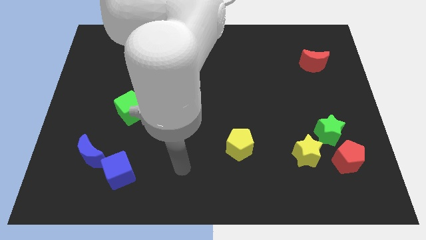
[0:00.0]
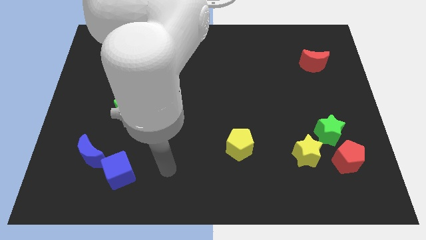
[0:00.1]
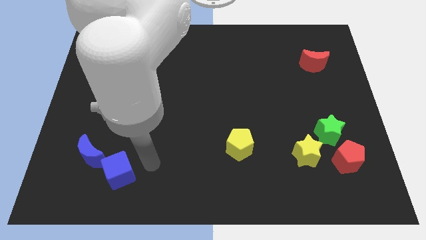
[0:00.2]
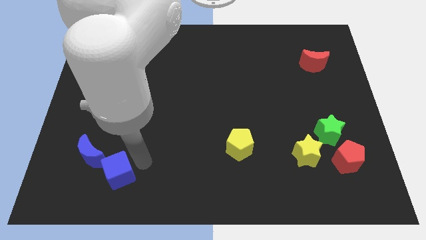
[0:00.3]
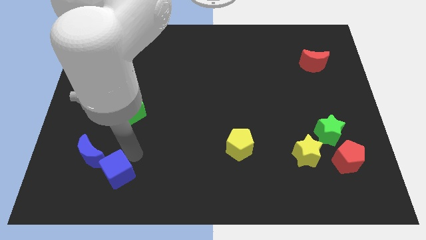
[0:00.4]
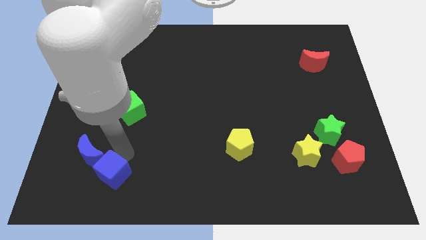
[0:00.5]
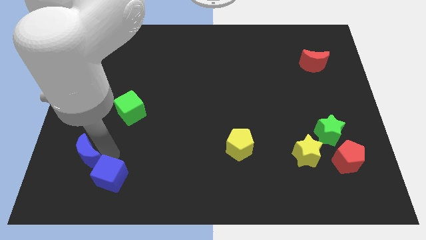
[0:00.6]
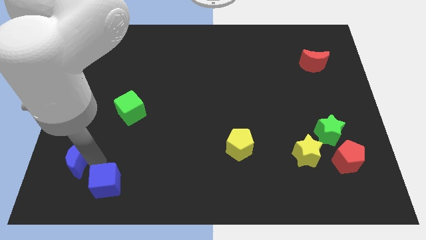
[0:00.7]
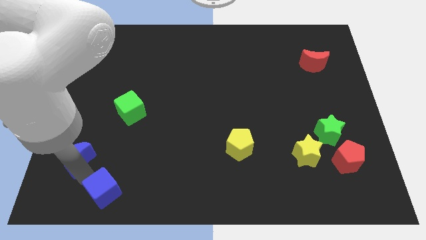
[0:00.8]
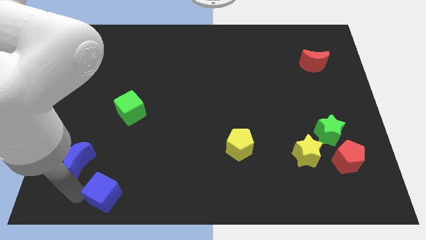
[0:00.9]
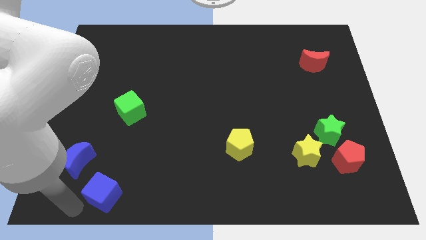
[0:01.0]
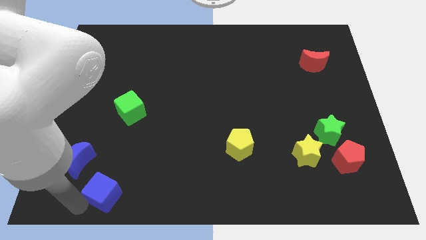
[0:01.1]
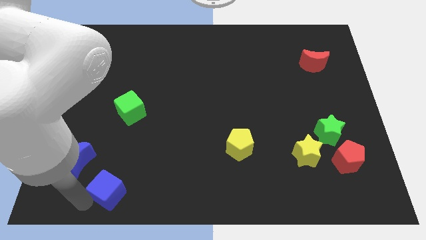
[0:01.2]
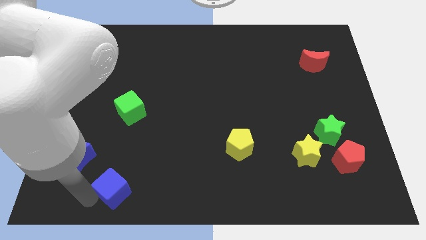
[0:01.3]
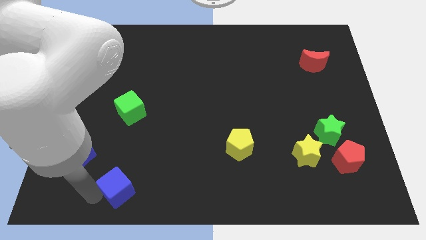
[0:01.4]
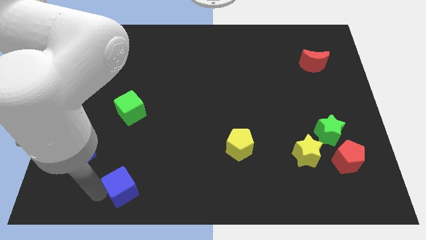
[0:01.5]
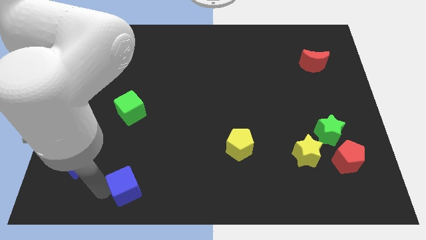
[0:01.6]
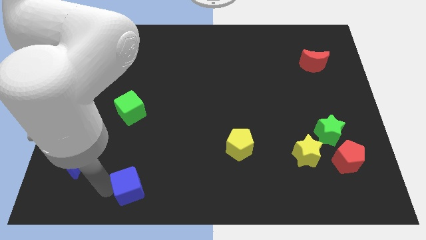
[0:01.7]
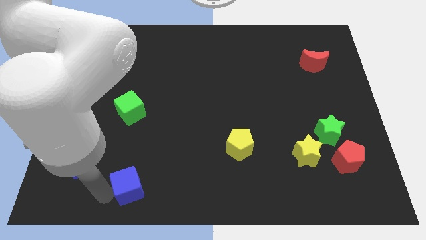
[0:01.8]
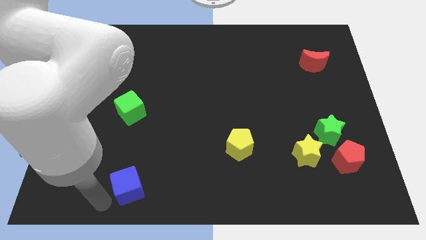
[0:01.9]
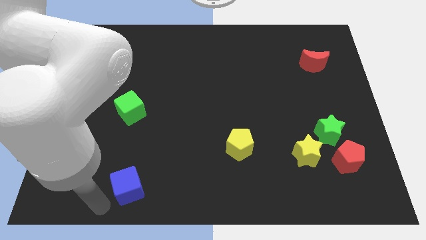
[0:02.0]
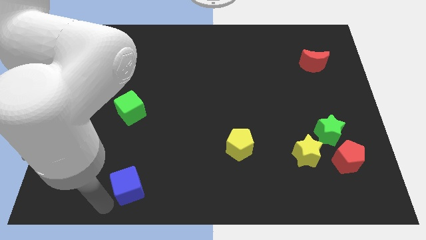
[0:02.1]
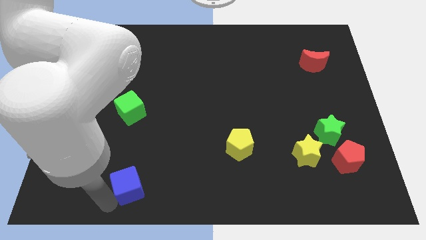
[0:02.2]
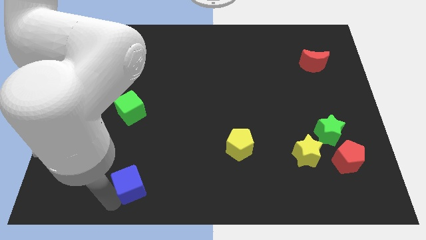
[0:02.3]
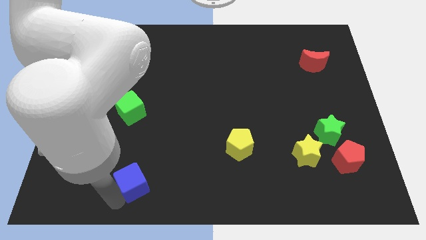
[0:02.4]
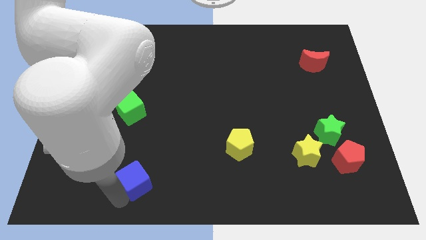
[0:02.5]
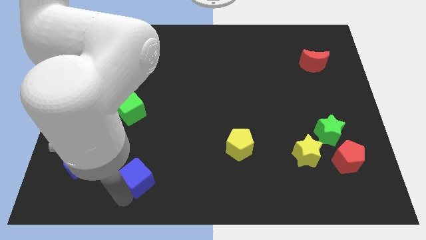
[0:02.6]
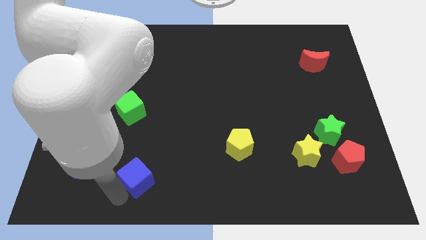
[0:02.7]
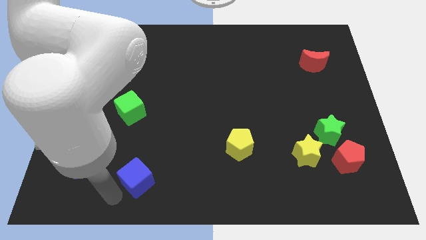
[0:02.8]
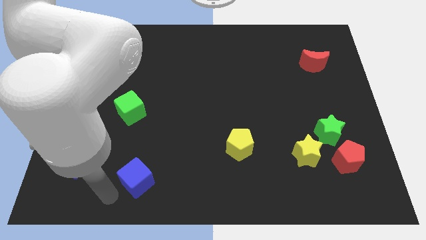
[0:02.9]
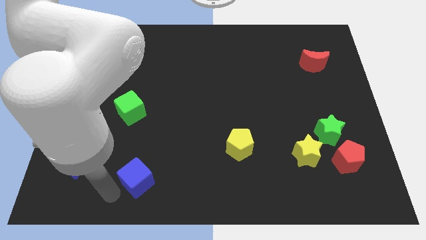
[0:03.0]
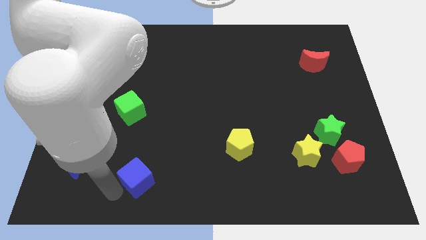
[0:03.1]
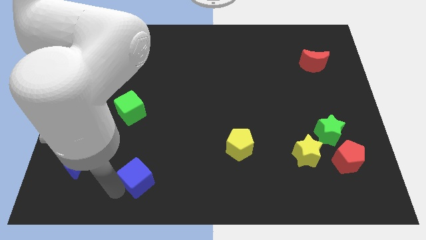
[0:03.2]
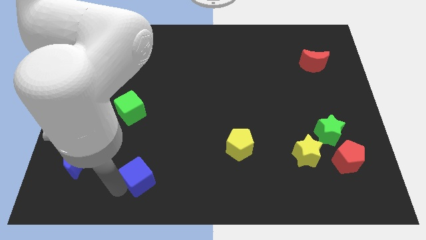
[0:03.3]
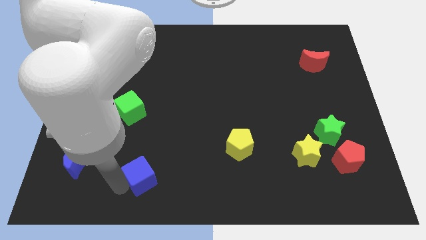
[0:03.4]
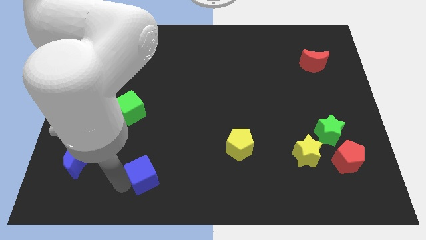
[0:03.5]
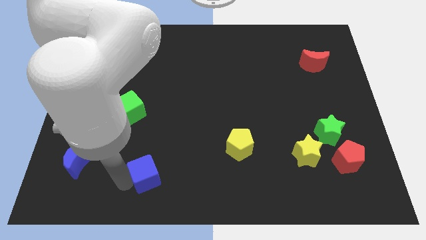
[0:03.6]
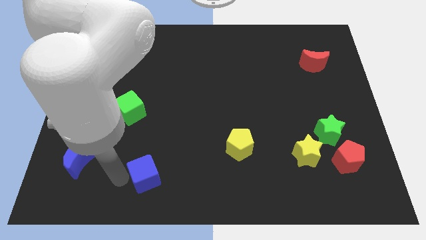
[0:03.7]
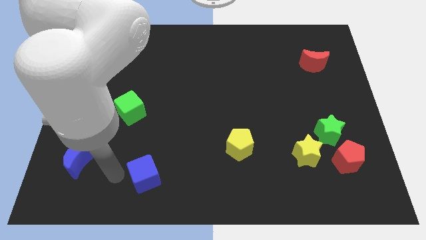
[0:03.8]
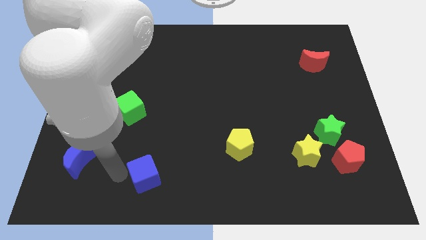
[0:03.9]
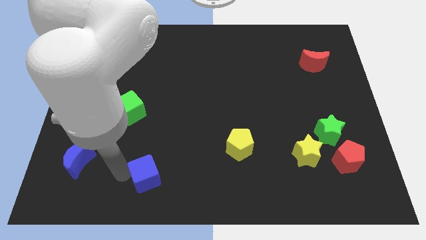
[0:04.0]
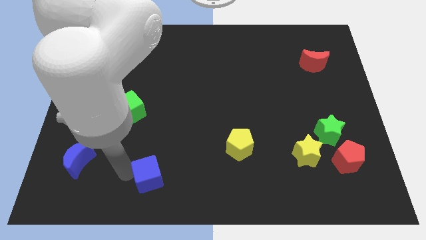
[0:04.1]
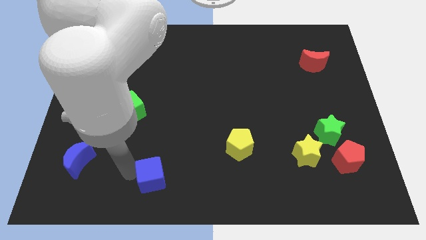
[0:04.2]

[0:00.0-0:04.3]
push the blue cube right a little

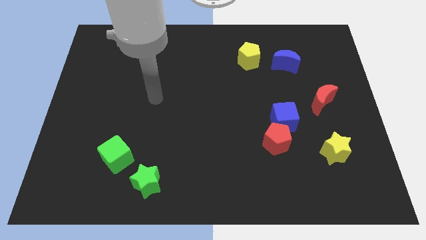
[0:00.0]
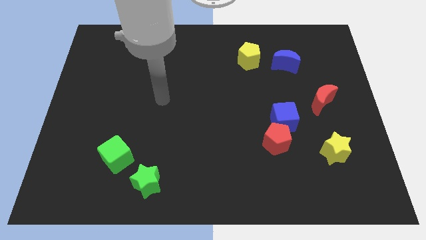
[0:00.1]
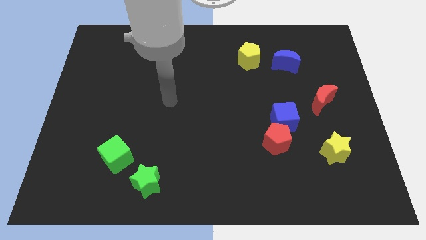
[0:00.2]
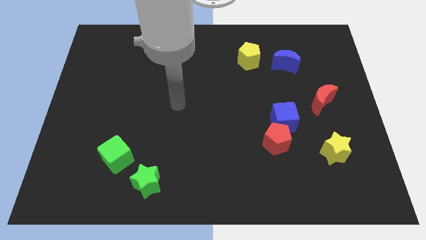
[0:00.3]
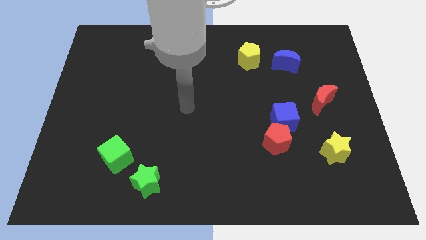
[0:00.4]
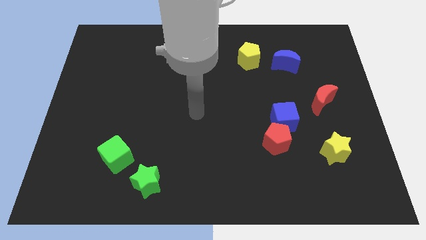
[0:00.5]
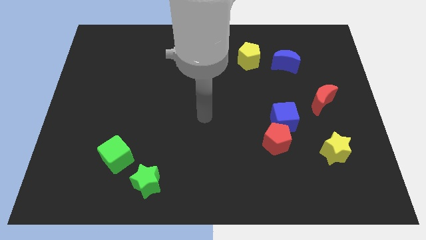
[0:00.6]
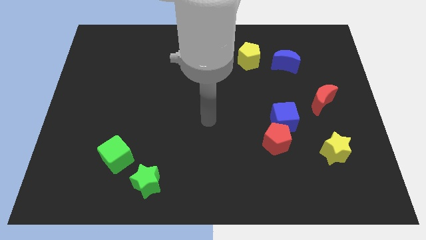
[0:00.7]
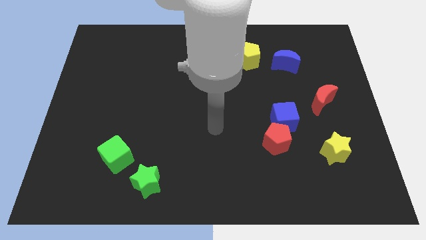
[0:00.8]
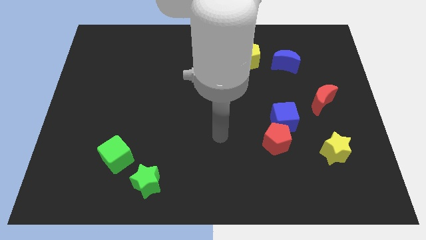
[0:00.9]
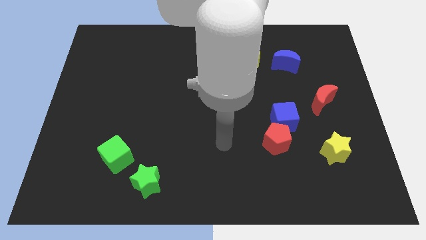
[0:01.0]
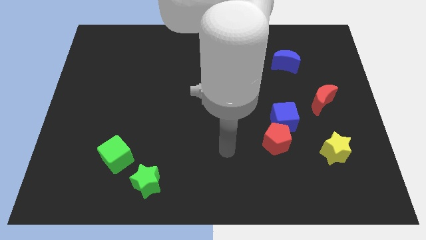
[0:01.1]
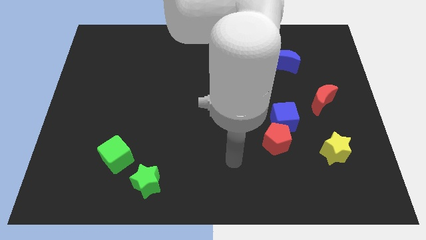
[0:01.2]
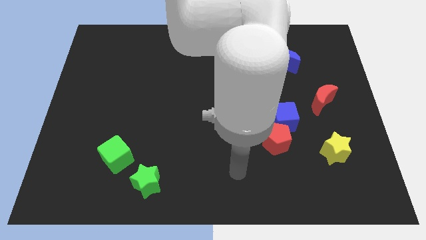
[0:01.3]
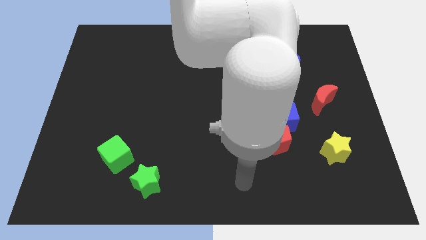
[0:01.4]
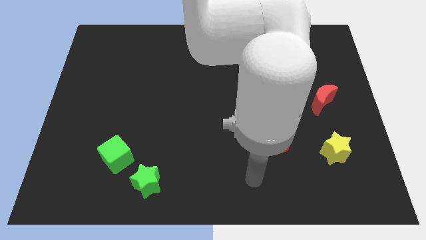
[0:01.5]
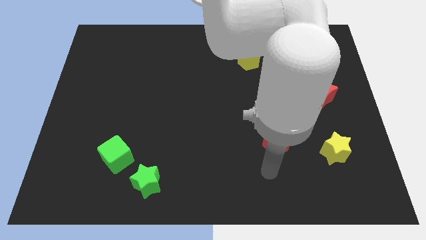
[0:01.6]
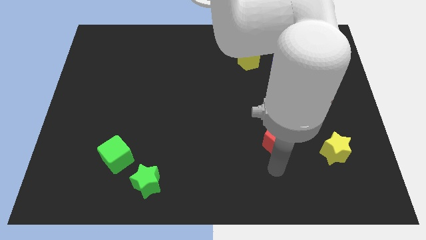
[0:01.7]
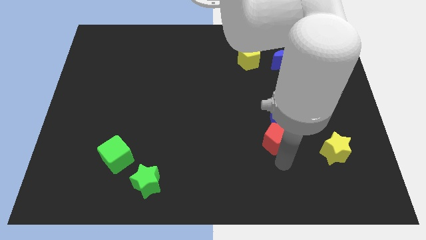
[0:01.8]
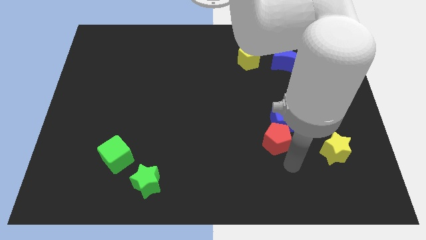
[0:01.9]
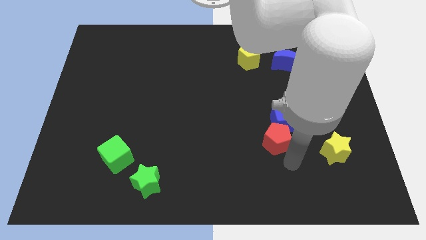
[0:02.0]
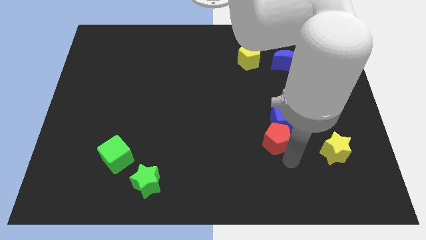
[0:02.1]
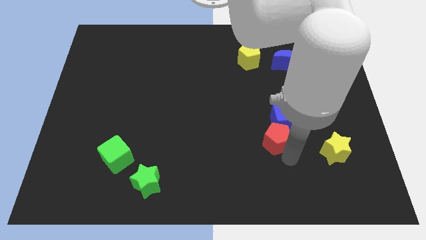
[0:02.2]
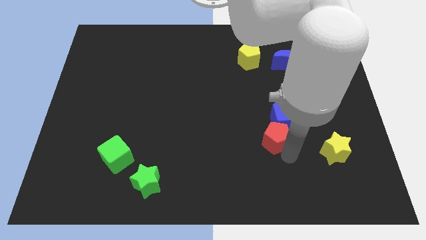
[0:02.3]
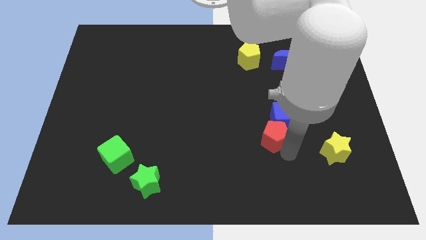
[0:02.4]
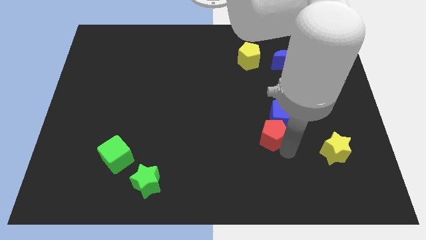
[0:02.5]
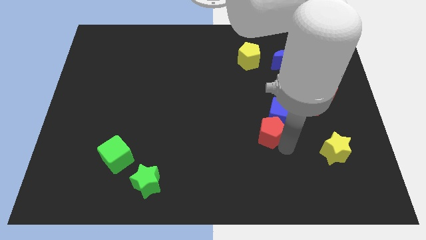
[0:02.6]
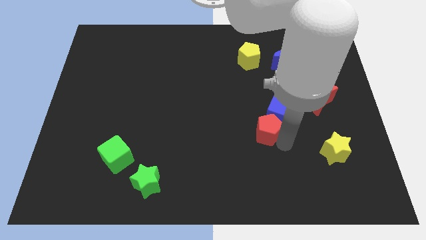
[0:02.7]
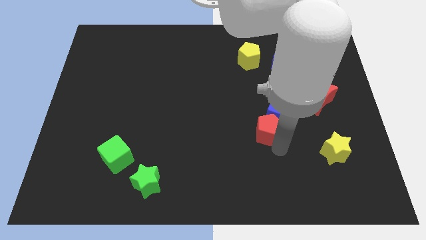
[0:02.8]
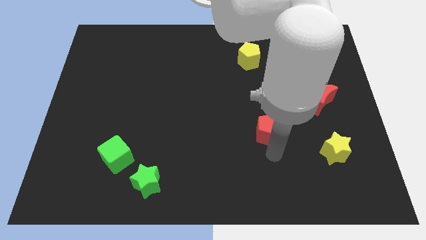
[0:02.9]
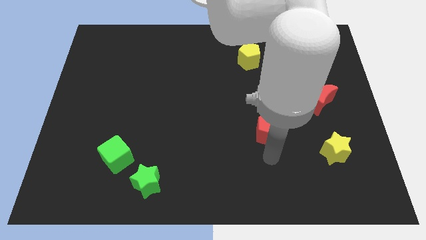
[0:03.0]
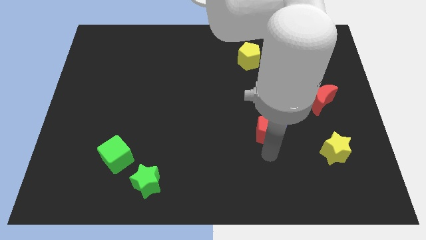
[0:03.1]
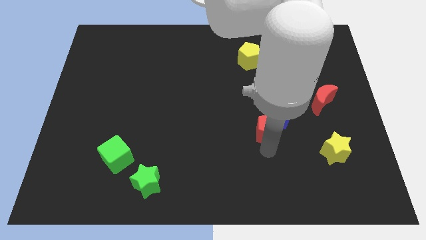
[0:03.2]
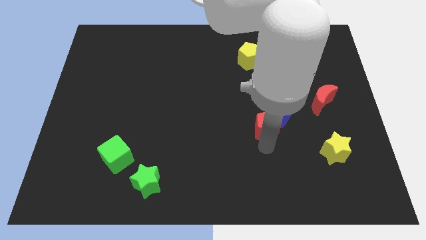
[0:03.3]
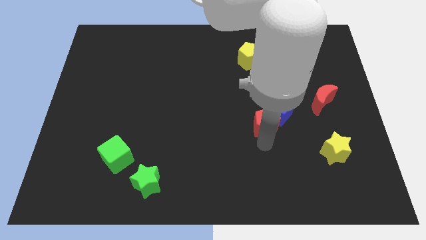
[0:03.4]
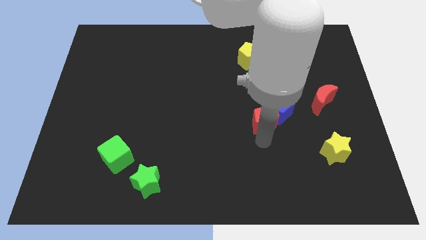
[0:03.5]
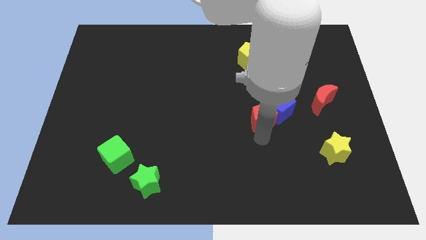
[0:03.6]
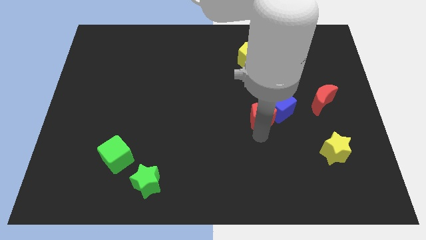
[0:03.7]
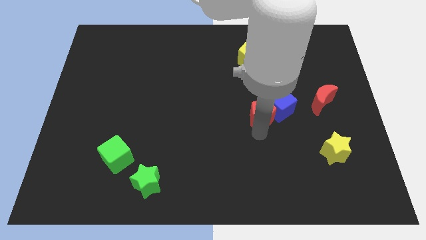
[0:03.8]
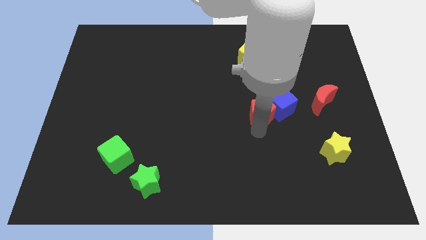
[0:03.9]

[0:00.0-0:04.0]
slightly slide the red pentagon up
